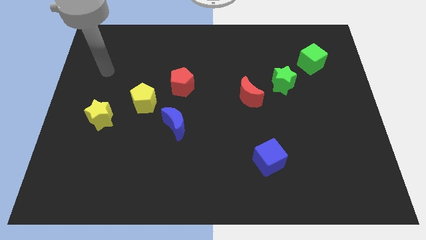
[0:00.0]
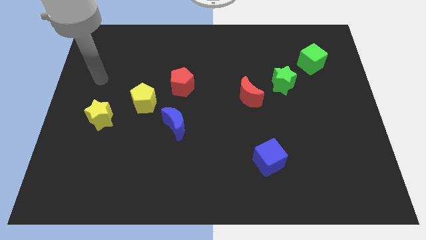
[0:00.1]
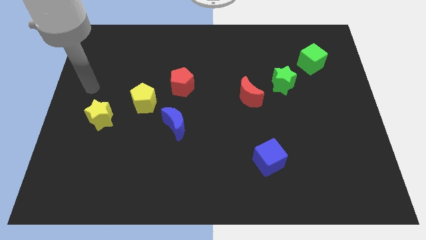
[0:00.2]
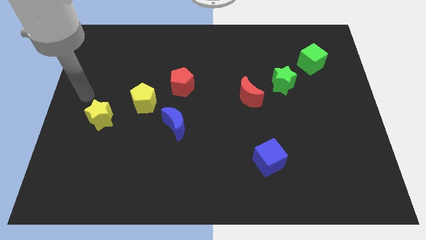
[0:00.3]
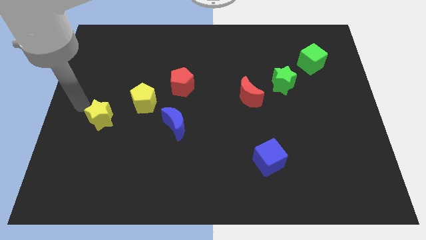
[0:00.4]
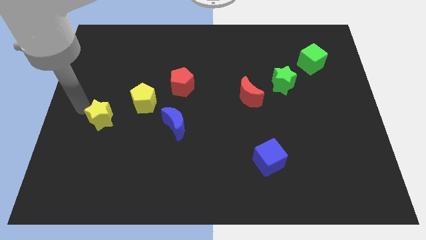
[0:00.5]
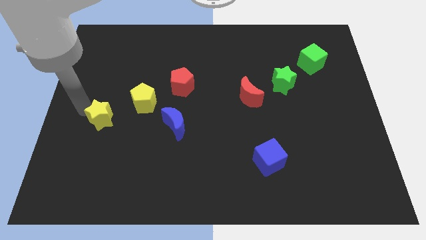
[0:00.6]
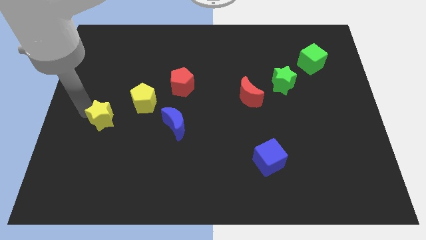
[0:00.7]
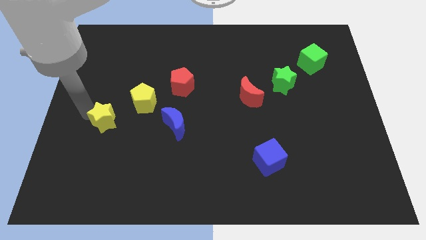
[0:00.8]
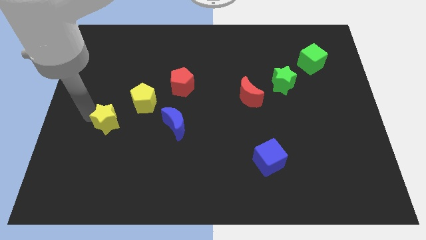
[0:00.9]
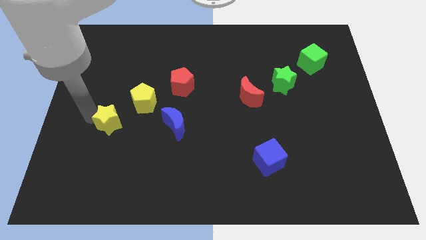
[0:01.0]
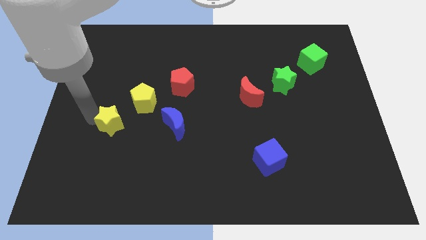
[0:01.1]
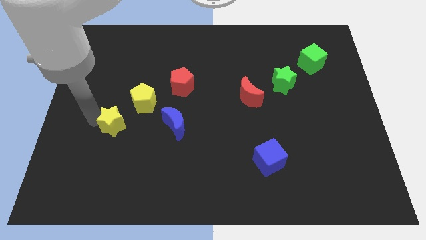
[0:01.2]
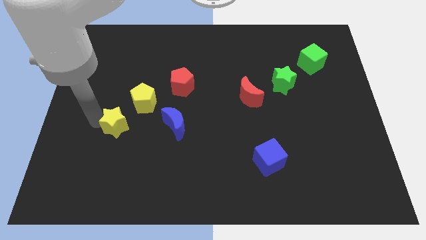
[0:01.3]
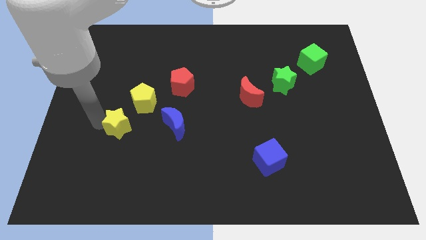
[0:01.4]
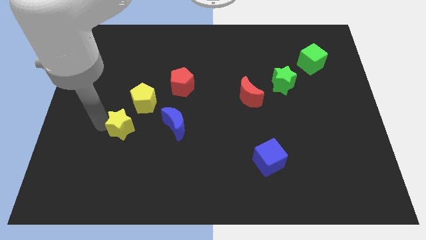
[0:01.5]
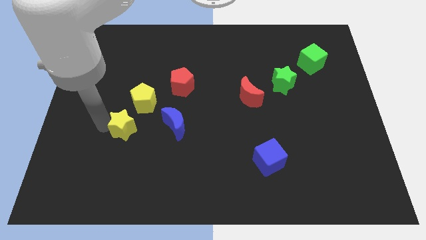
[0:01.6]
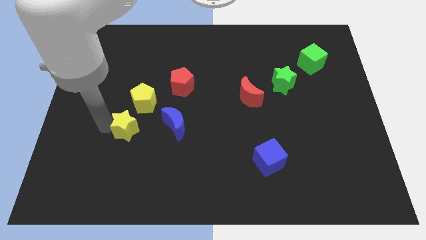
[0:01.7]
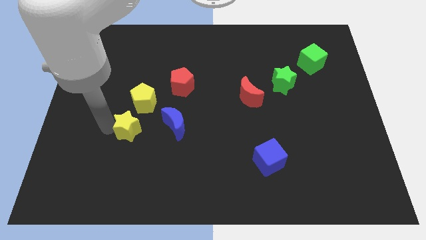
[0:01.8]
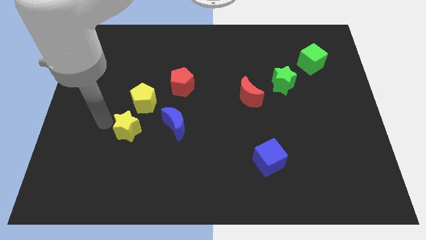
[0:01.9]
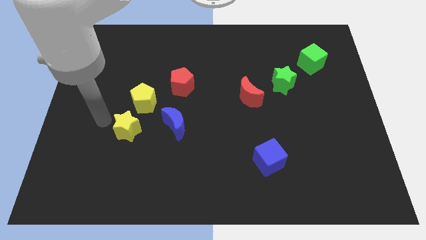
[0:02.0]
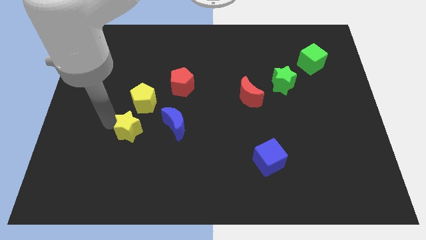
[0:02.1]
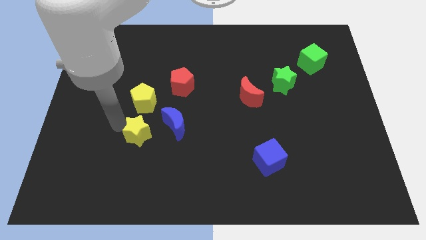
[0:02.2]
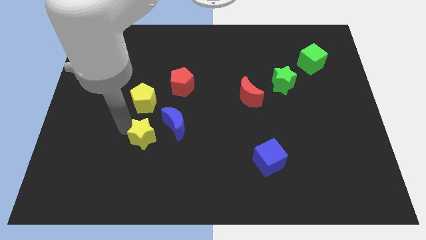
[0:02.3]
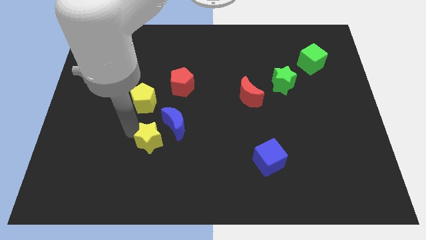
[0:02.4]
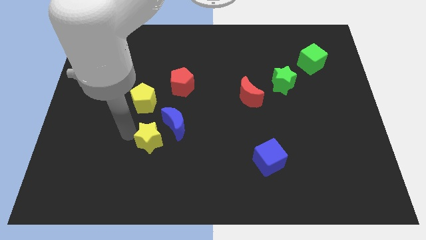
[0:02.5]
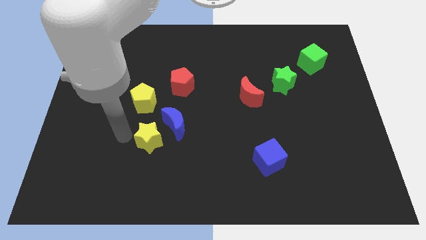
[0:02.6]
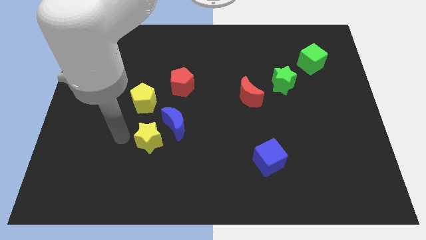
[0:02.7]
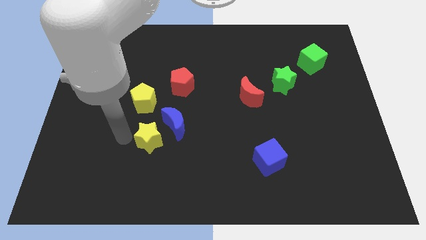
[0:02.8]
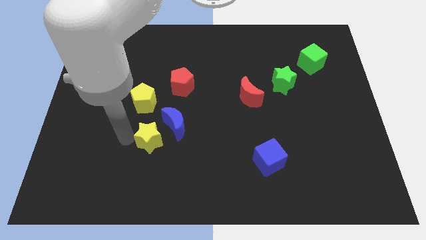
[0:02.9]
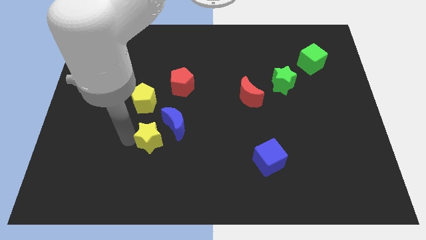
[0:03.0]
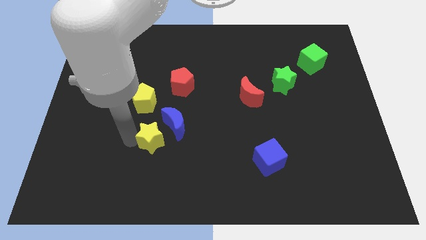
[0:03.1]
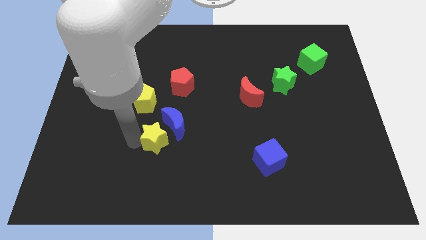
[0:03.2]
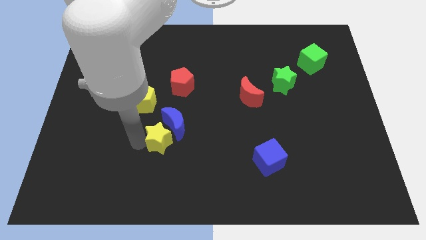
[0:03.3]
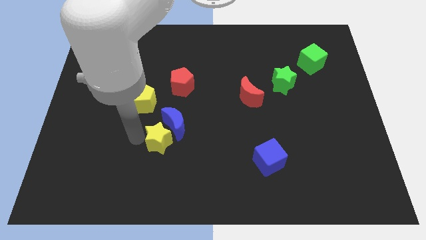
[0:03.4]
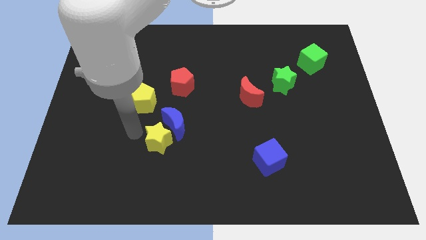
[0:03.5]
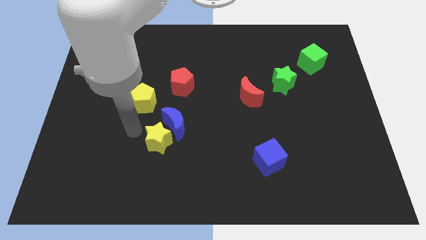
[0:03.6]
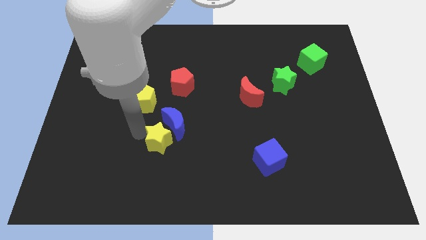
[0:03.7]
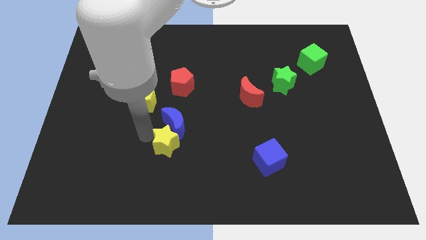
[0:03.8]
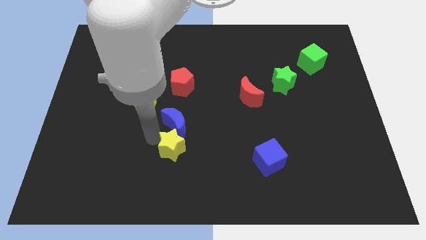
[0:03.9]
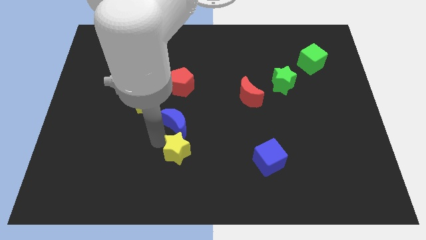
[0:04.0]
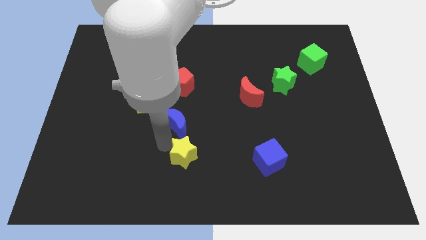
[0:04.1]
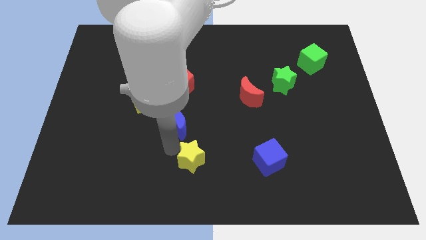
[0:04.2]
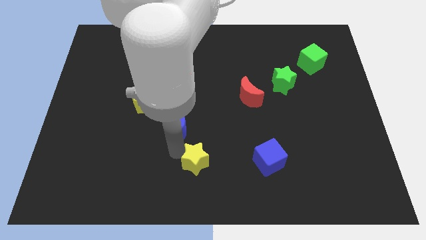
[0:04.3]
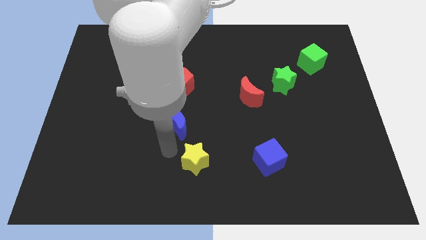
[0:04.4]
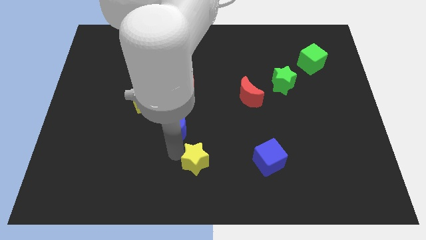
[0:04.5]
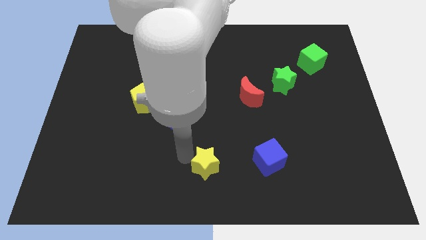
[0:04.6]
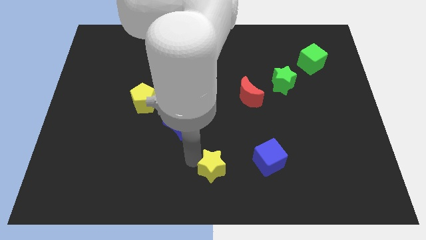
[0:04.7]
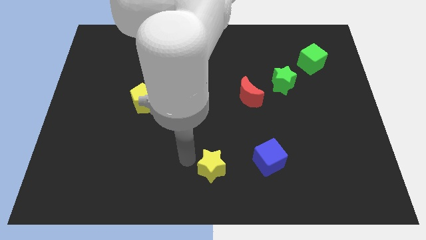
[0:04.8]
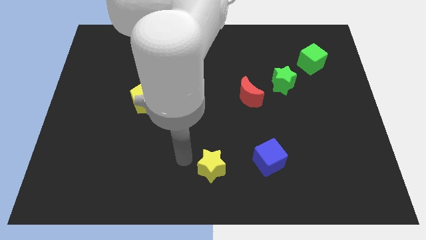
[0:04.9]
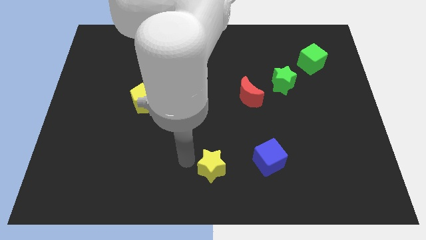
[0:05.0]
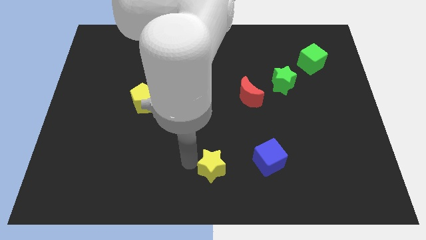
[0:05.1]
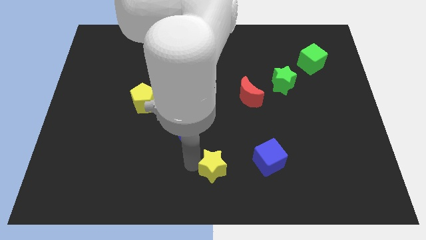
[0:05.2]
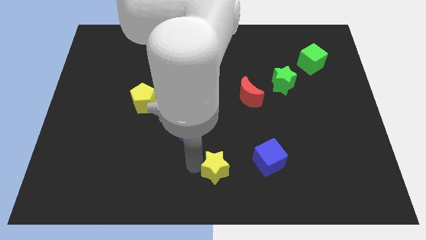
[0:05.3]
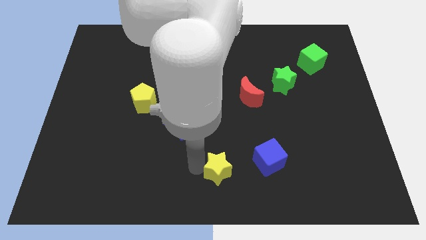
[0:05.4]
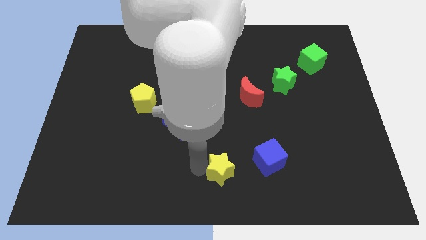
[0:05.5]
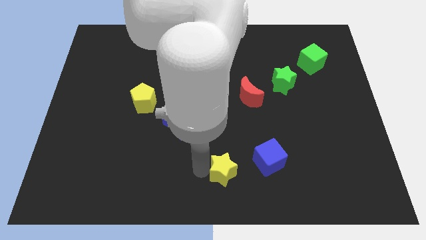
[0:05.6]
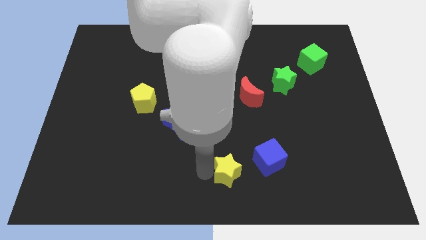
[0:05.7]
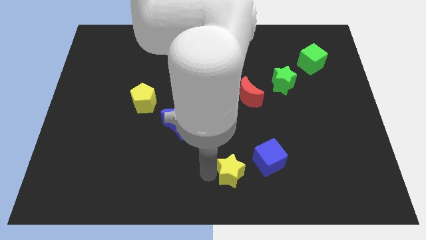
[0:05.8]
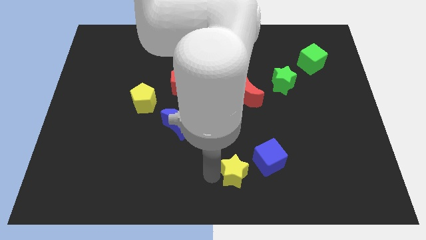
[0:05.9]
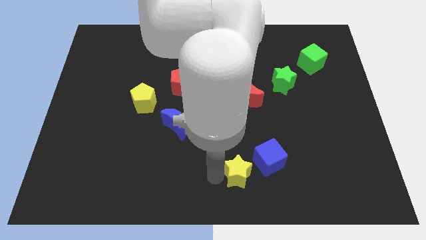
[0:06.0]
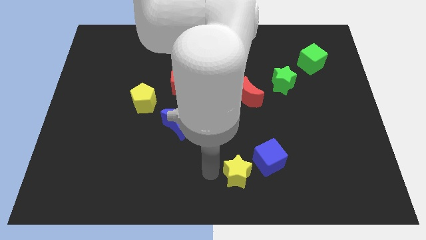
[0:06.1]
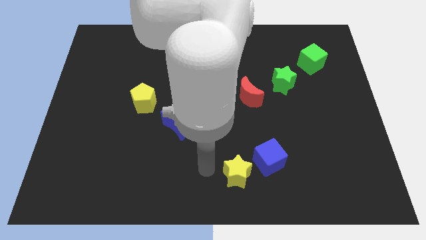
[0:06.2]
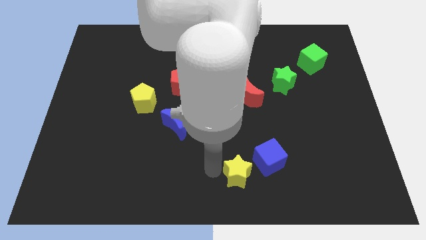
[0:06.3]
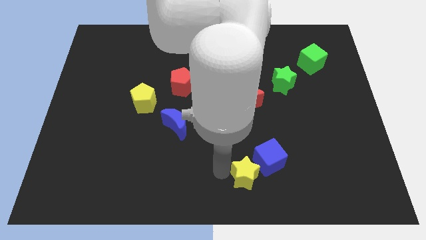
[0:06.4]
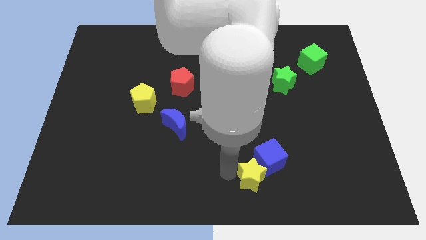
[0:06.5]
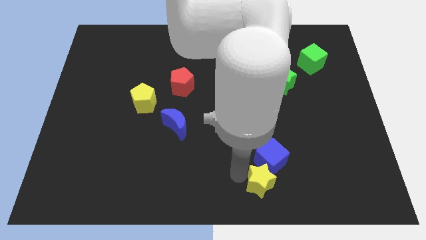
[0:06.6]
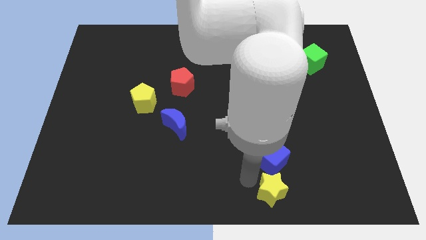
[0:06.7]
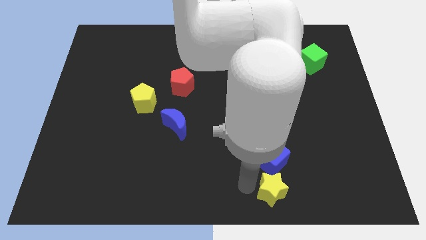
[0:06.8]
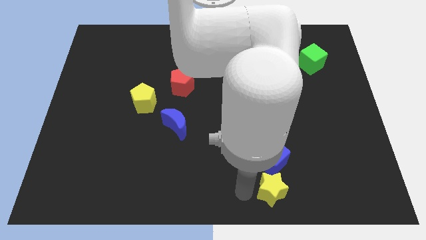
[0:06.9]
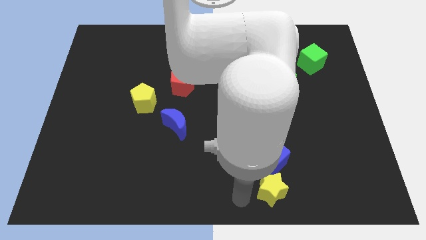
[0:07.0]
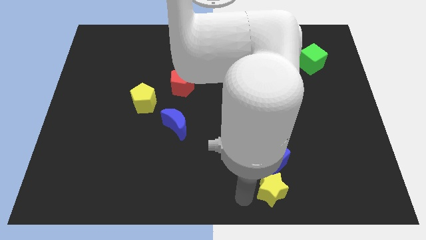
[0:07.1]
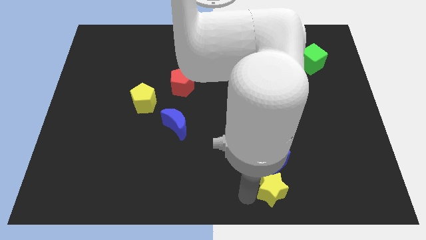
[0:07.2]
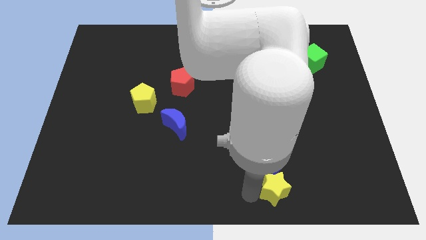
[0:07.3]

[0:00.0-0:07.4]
put the yellow star to the bottom right of the blue cube
